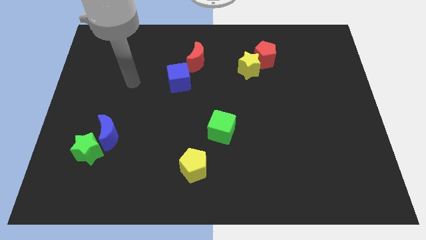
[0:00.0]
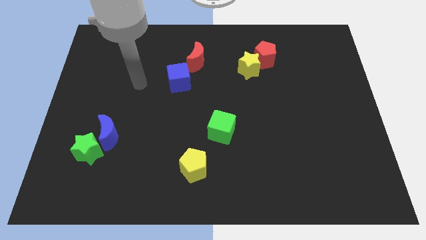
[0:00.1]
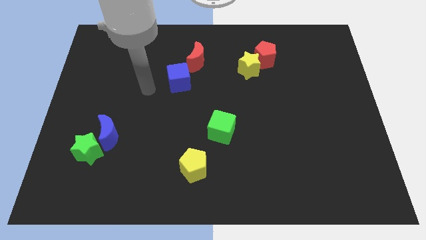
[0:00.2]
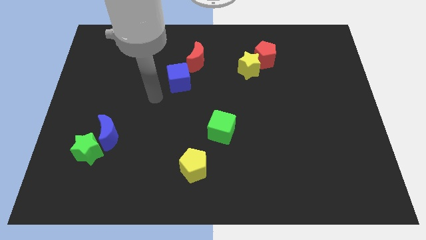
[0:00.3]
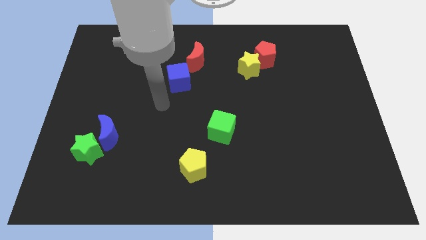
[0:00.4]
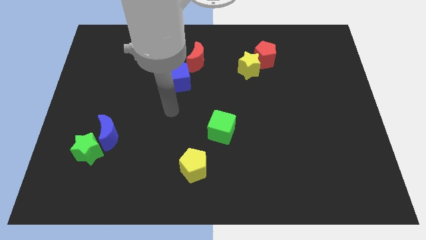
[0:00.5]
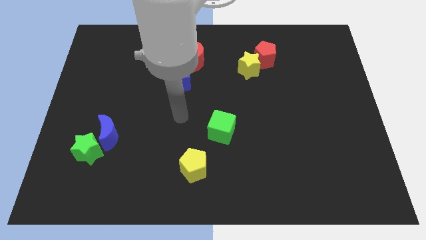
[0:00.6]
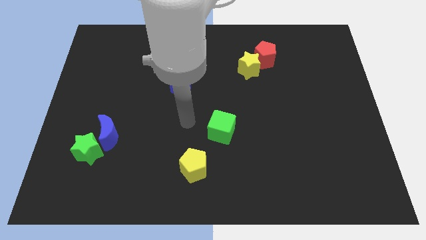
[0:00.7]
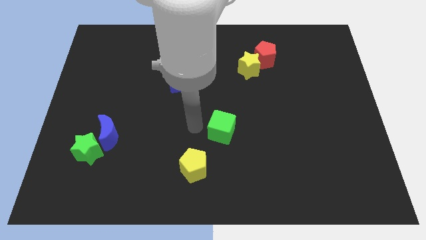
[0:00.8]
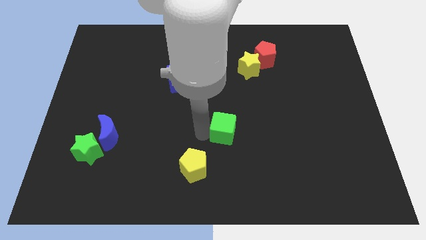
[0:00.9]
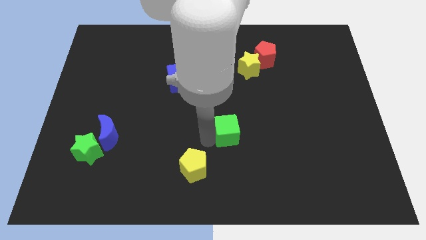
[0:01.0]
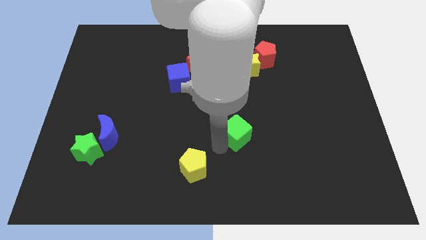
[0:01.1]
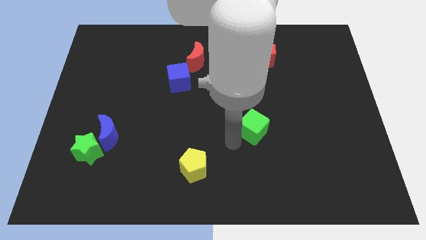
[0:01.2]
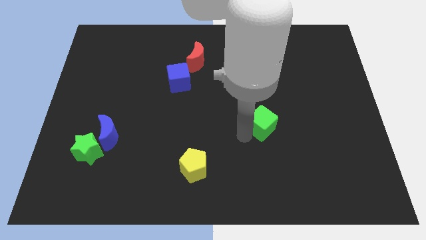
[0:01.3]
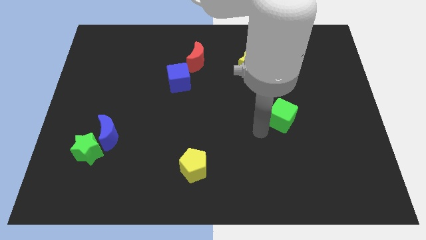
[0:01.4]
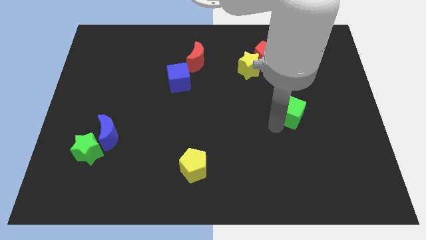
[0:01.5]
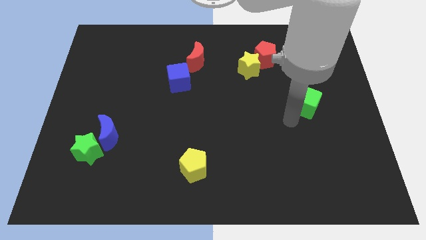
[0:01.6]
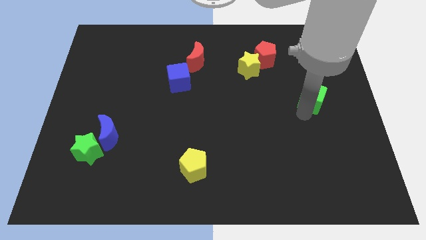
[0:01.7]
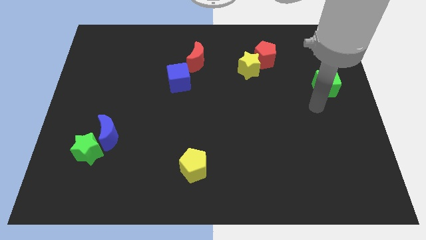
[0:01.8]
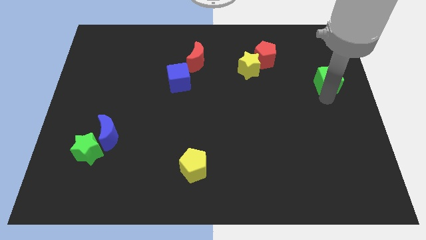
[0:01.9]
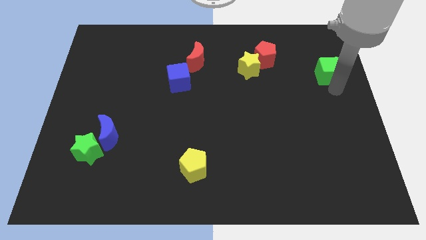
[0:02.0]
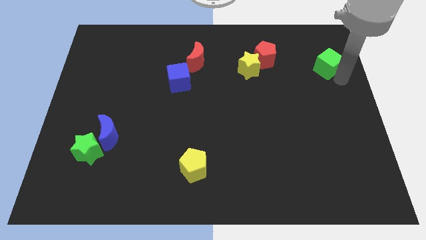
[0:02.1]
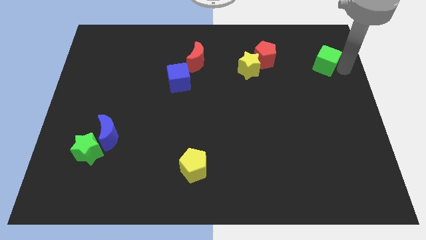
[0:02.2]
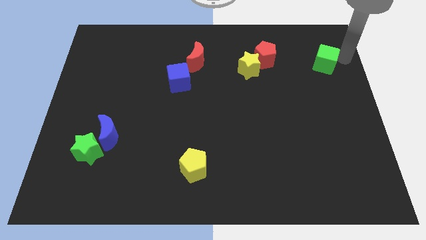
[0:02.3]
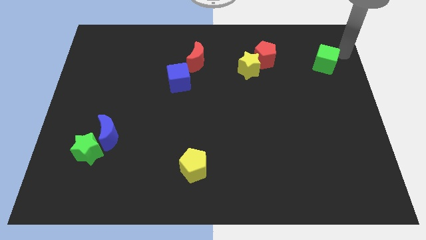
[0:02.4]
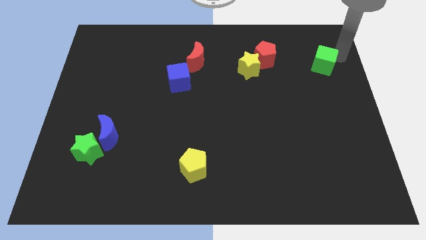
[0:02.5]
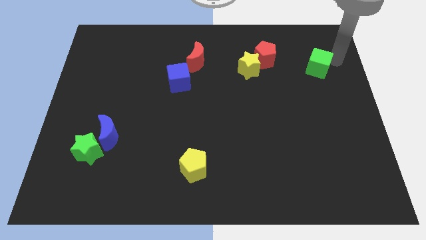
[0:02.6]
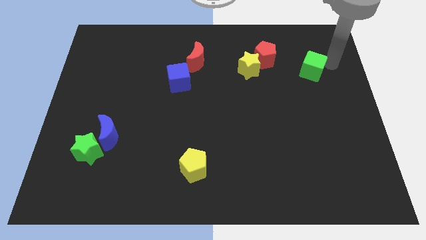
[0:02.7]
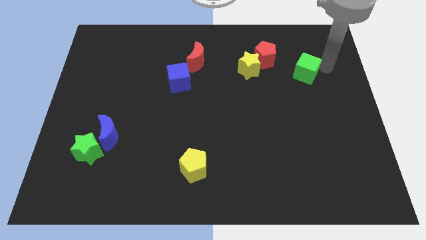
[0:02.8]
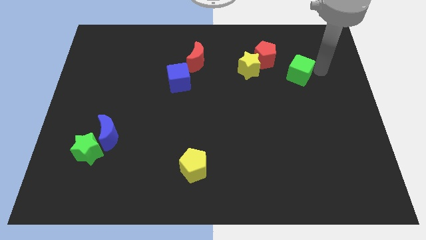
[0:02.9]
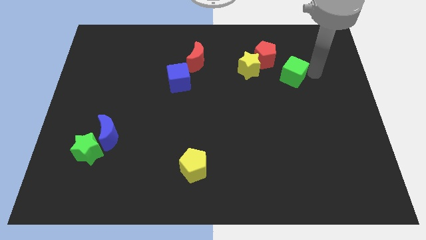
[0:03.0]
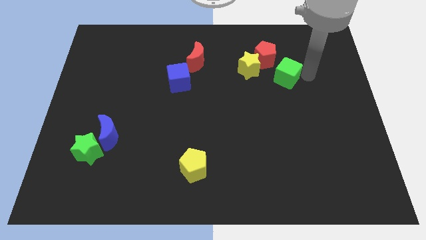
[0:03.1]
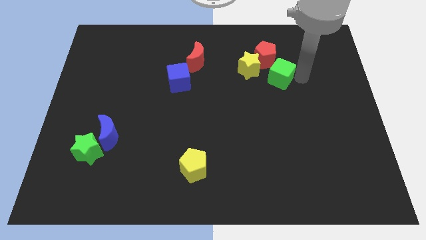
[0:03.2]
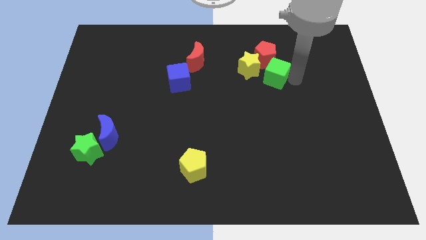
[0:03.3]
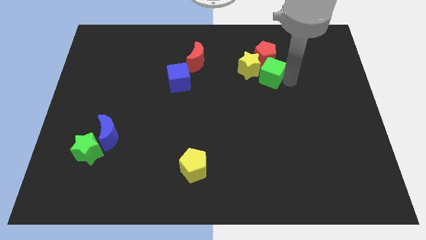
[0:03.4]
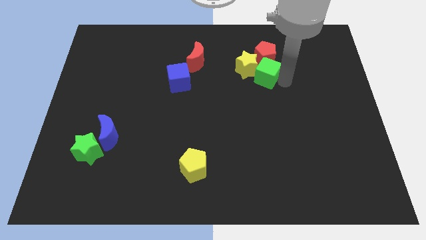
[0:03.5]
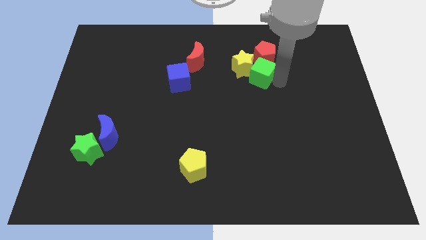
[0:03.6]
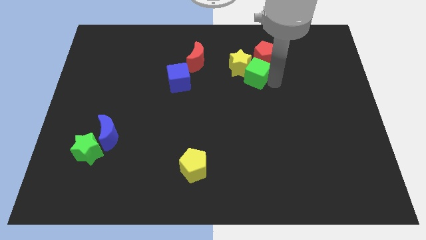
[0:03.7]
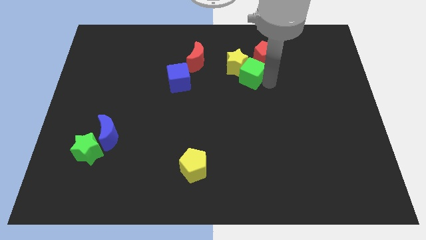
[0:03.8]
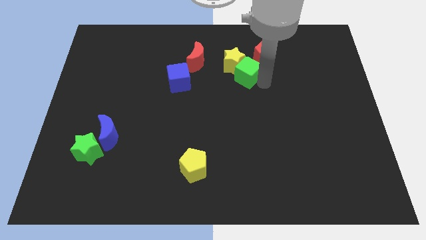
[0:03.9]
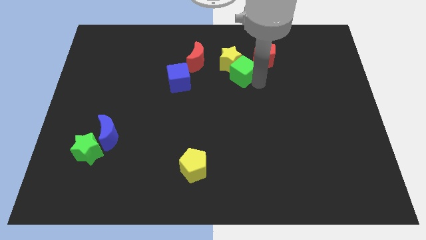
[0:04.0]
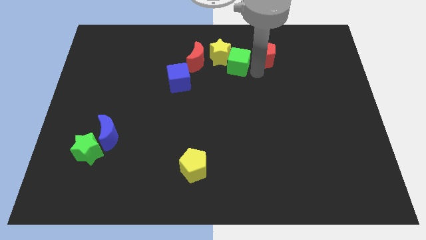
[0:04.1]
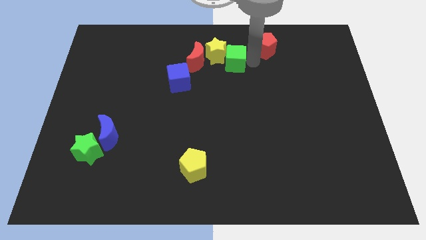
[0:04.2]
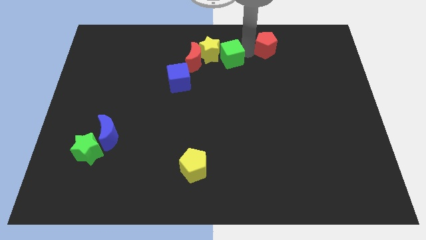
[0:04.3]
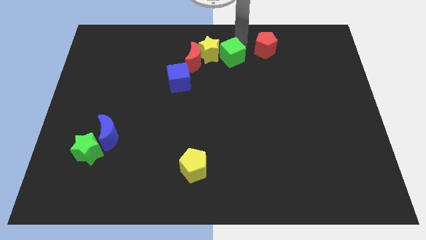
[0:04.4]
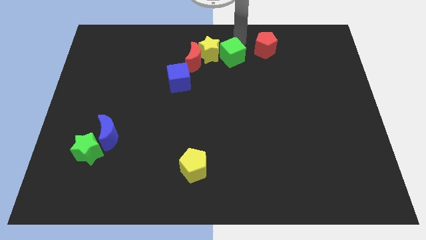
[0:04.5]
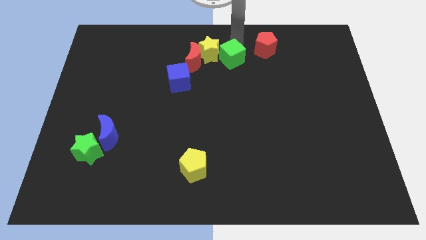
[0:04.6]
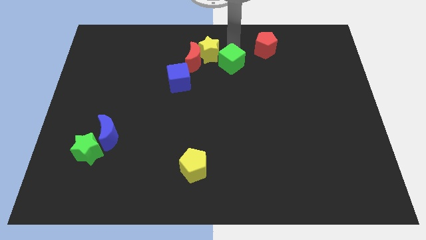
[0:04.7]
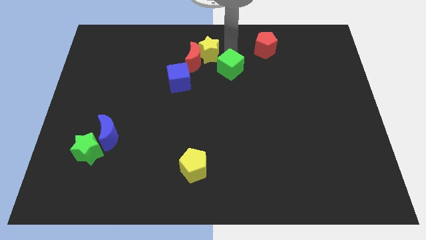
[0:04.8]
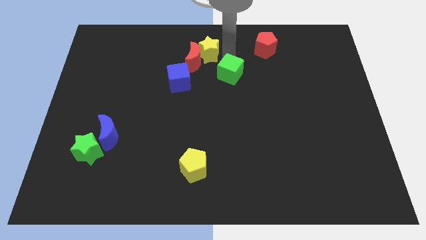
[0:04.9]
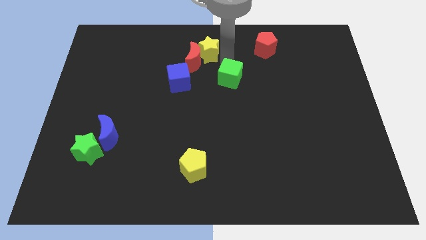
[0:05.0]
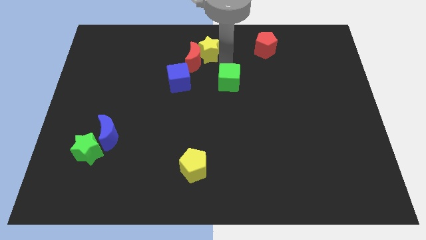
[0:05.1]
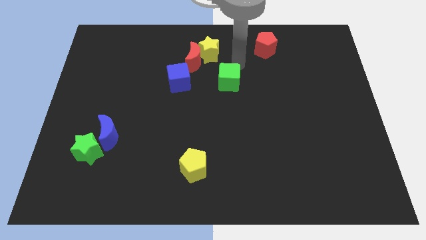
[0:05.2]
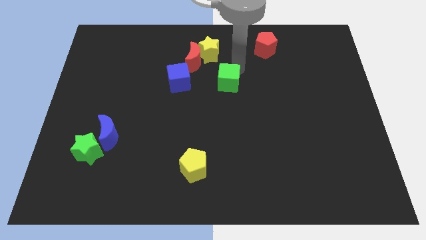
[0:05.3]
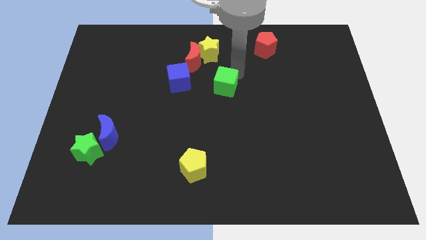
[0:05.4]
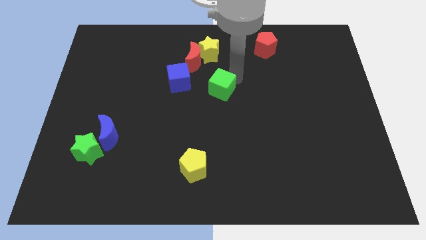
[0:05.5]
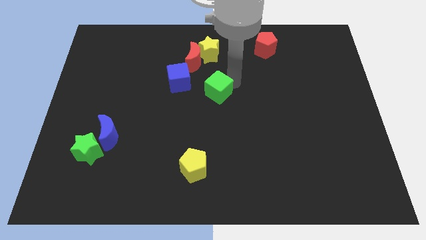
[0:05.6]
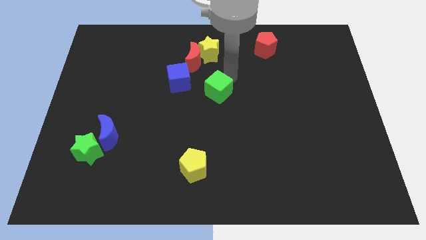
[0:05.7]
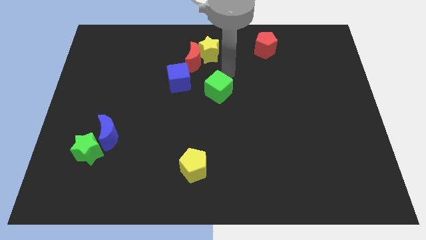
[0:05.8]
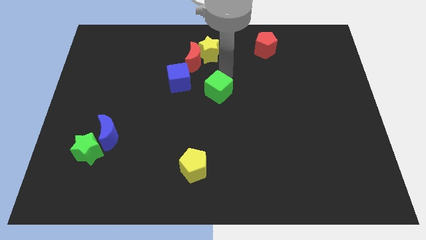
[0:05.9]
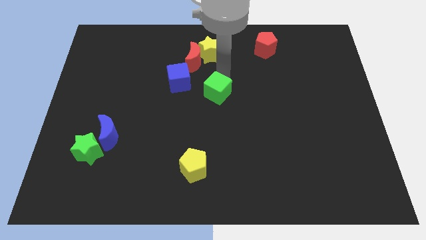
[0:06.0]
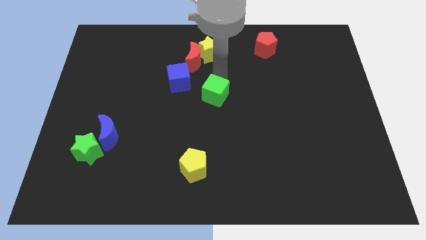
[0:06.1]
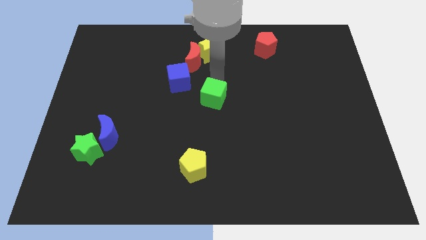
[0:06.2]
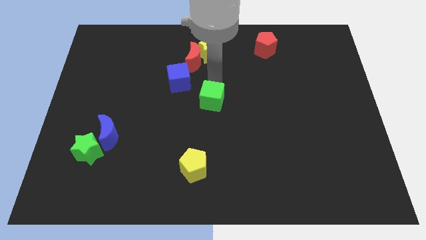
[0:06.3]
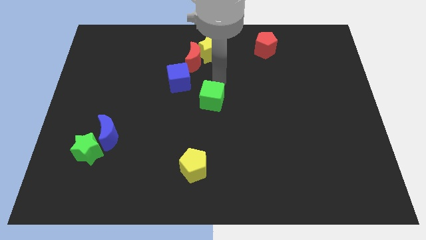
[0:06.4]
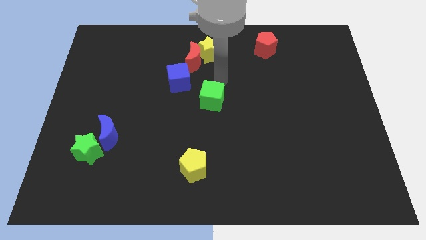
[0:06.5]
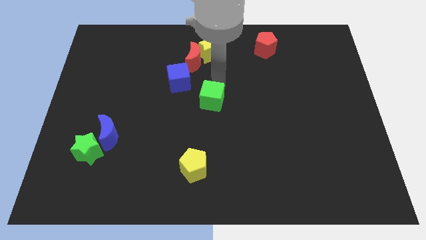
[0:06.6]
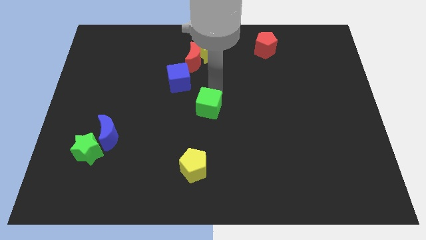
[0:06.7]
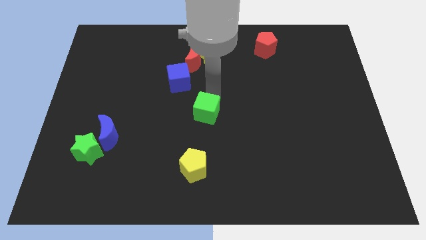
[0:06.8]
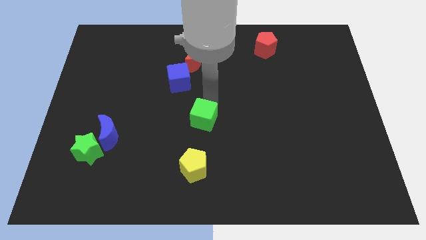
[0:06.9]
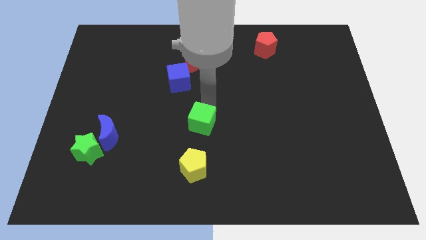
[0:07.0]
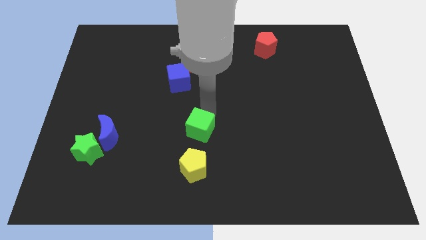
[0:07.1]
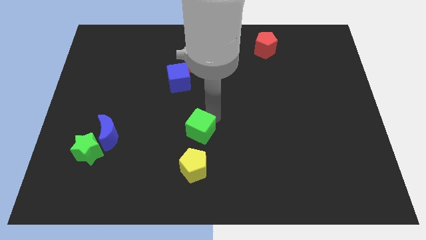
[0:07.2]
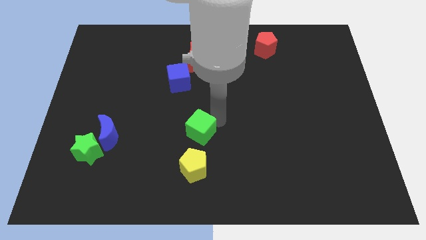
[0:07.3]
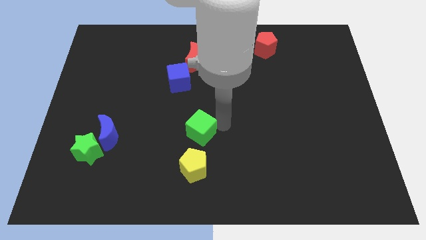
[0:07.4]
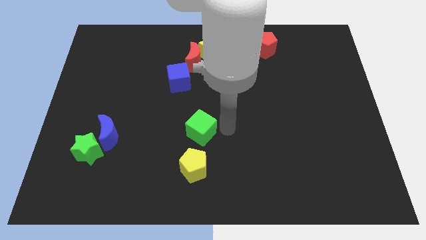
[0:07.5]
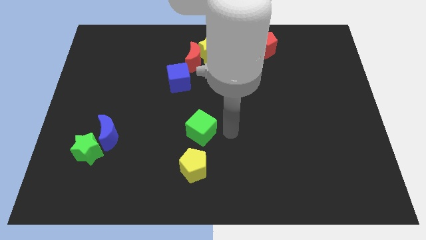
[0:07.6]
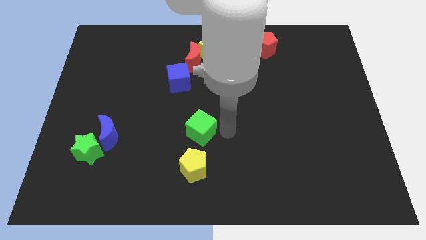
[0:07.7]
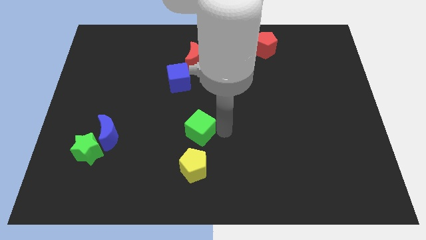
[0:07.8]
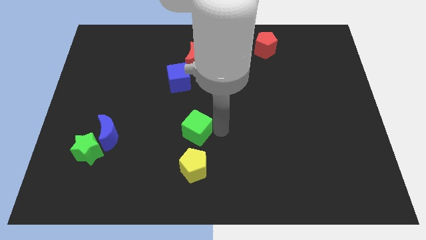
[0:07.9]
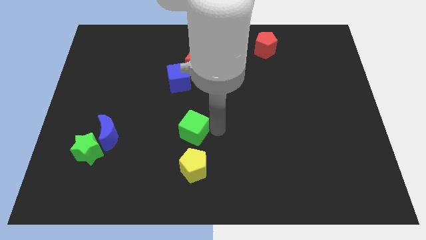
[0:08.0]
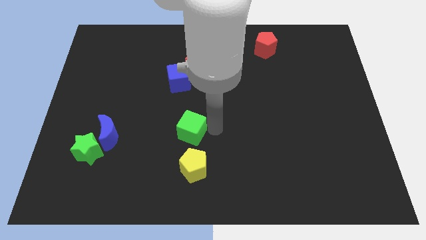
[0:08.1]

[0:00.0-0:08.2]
move the green cube to the left somewhat
